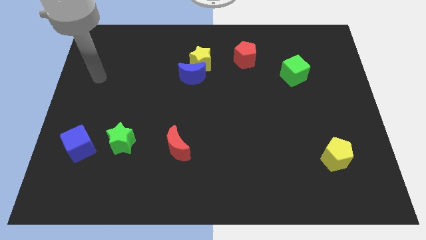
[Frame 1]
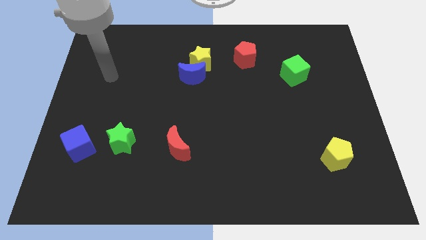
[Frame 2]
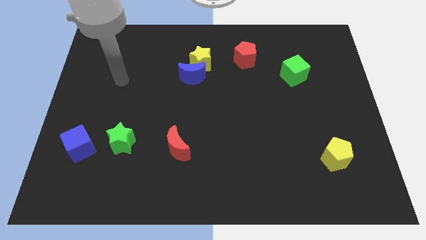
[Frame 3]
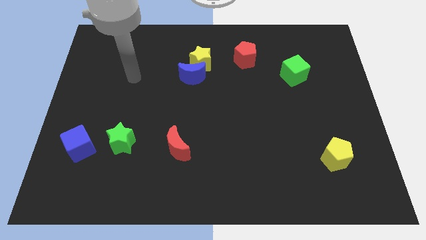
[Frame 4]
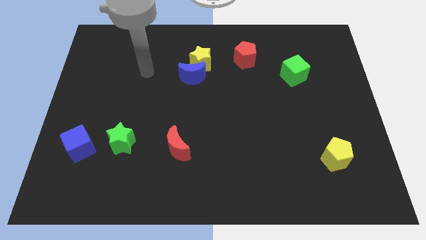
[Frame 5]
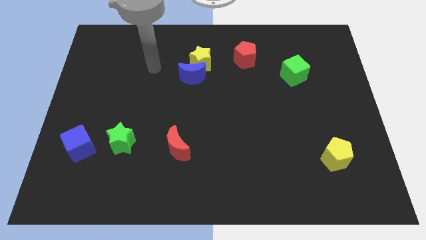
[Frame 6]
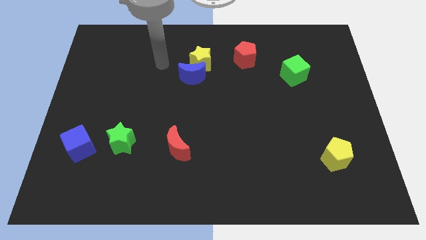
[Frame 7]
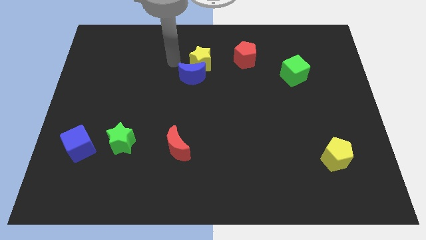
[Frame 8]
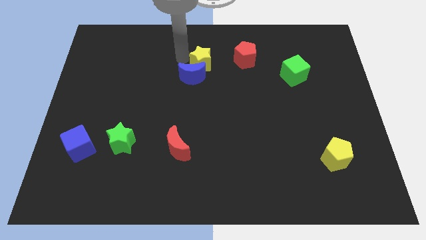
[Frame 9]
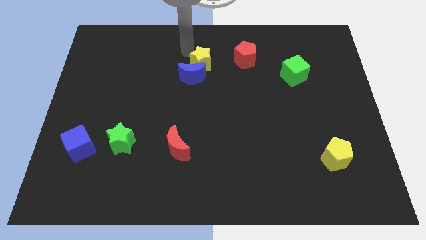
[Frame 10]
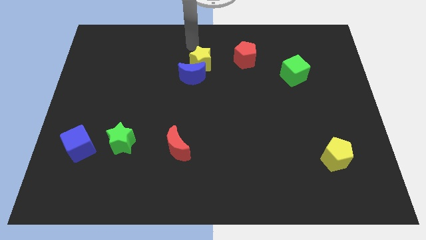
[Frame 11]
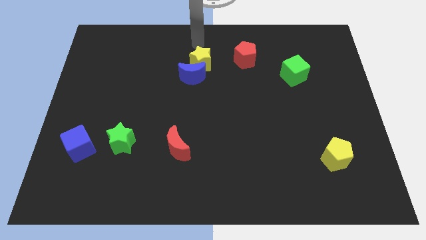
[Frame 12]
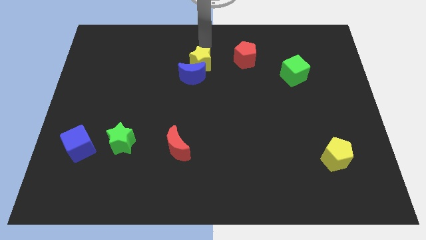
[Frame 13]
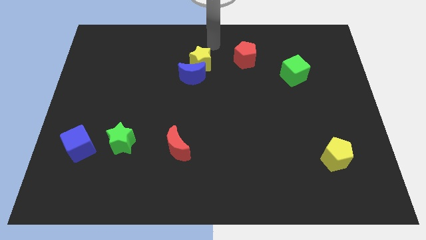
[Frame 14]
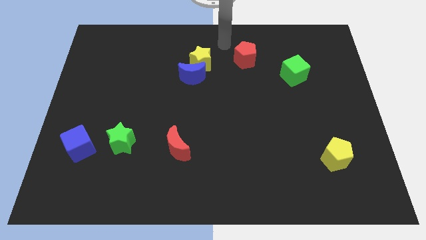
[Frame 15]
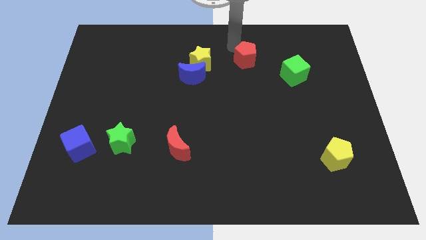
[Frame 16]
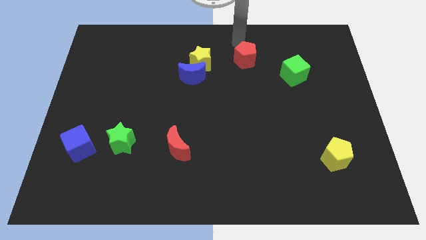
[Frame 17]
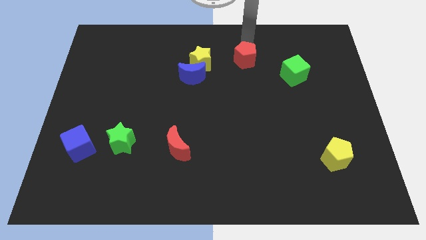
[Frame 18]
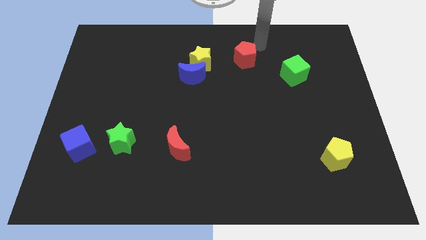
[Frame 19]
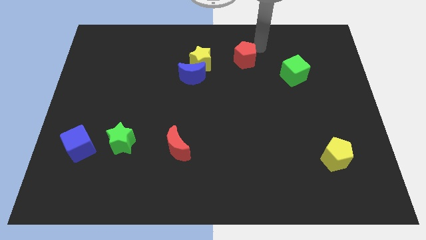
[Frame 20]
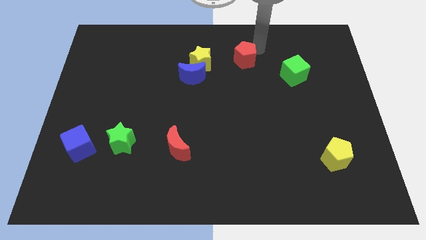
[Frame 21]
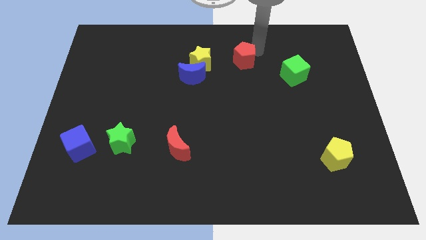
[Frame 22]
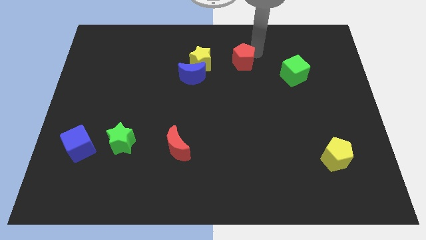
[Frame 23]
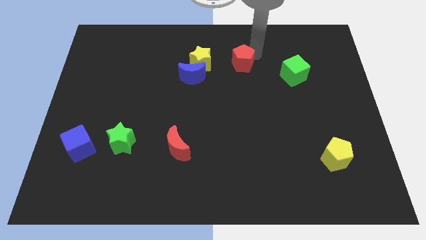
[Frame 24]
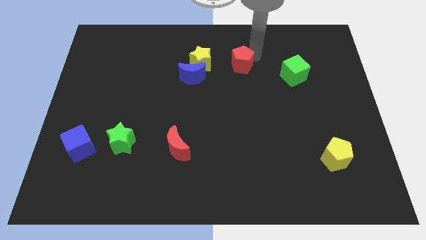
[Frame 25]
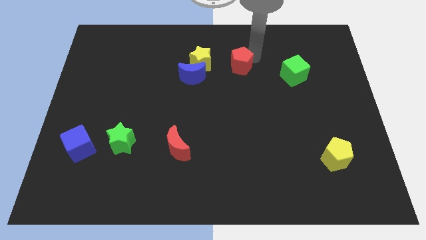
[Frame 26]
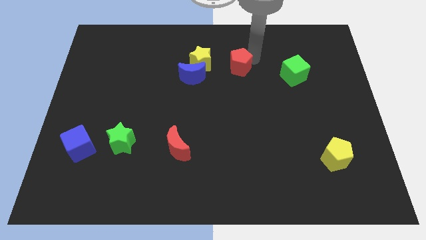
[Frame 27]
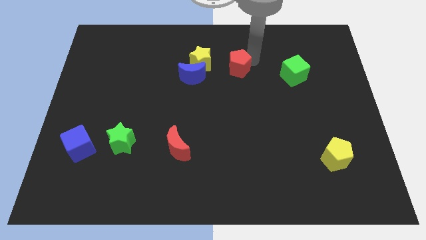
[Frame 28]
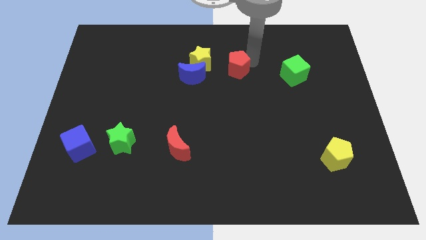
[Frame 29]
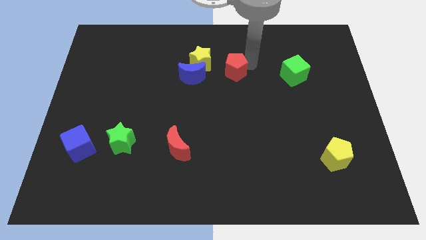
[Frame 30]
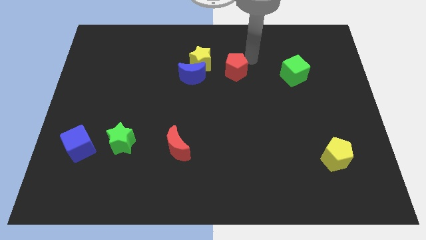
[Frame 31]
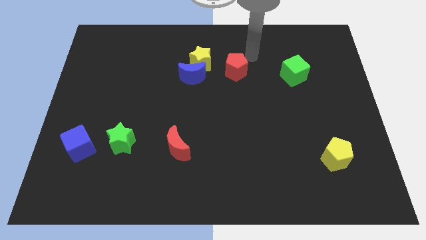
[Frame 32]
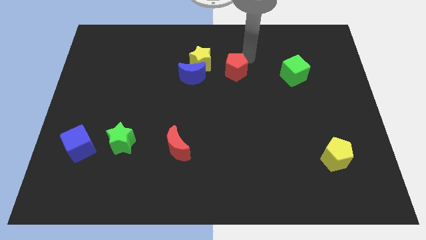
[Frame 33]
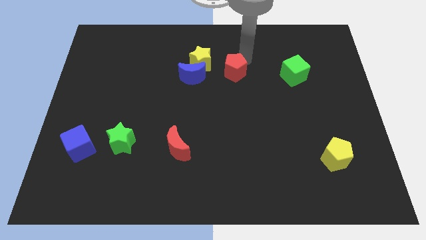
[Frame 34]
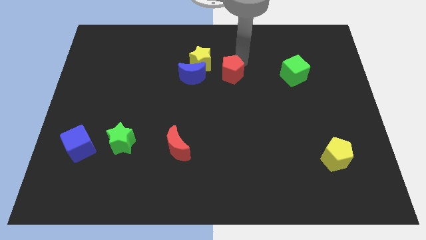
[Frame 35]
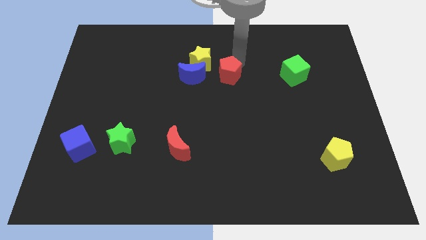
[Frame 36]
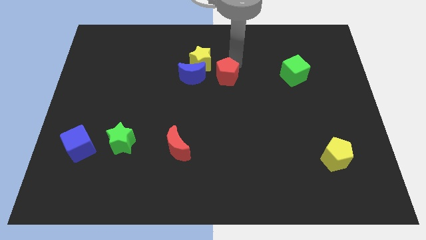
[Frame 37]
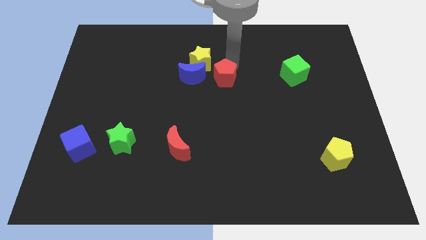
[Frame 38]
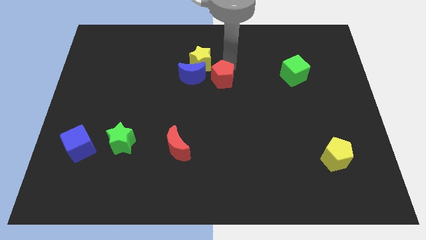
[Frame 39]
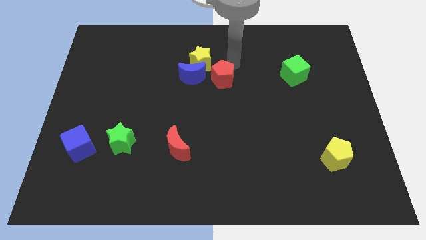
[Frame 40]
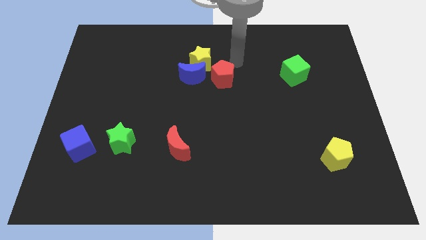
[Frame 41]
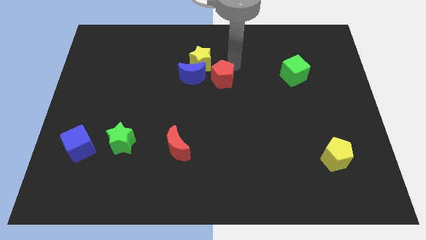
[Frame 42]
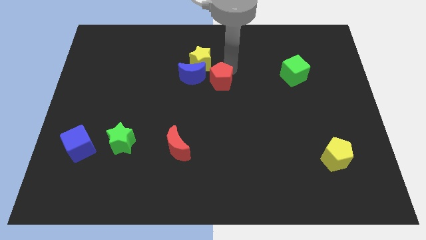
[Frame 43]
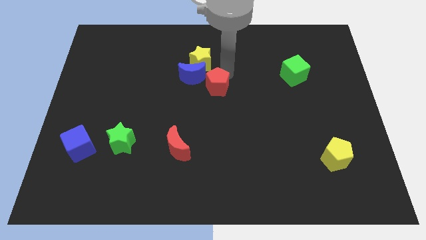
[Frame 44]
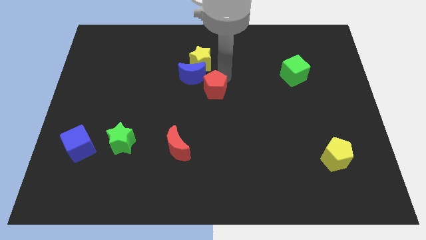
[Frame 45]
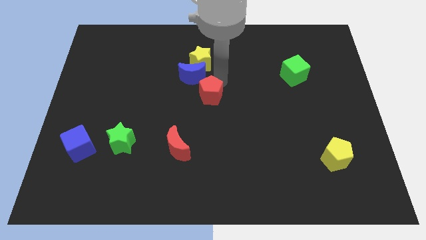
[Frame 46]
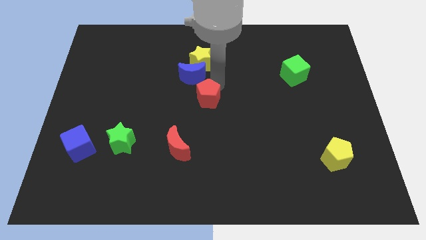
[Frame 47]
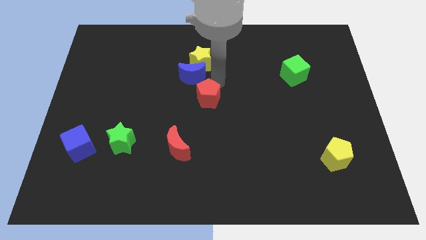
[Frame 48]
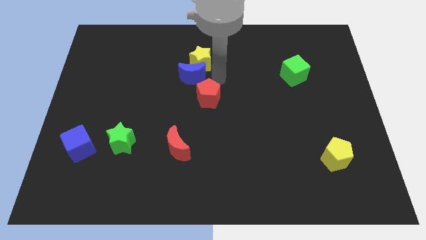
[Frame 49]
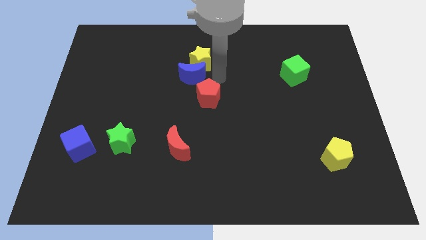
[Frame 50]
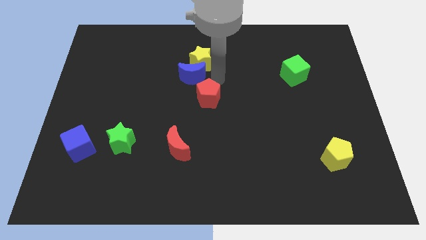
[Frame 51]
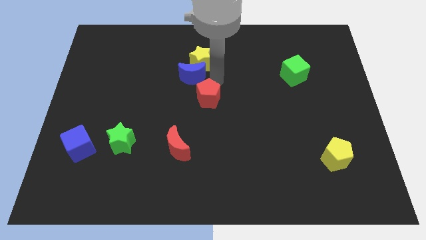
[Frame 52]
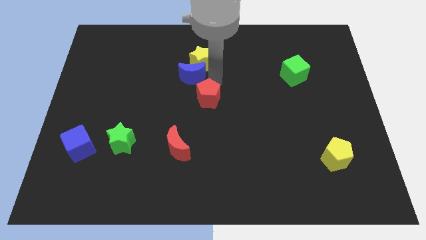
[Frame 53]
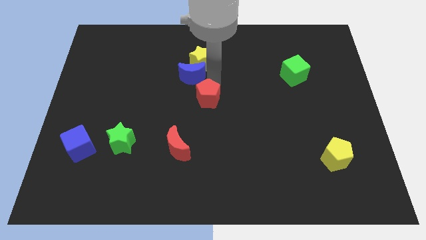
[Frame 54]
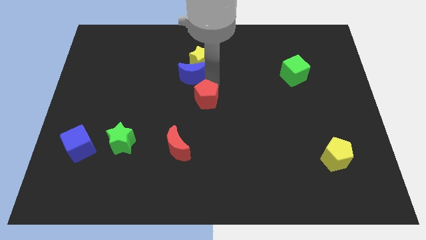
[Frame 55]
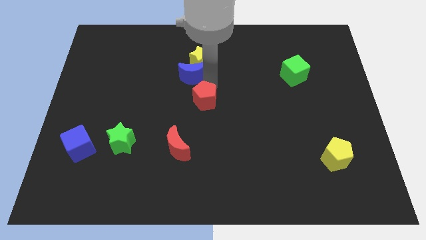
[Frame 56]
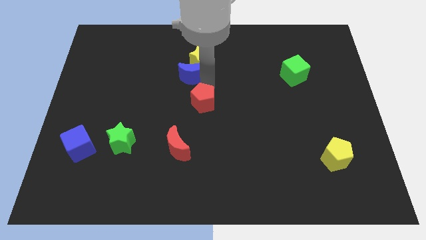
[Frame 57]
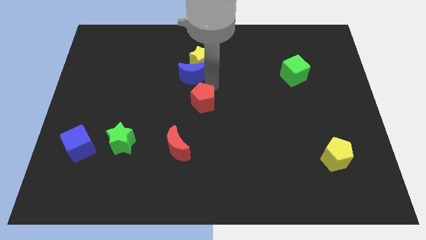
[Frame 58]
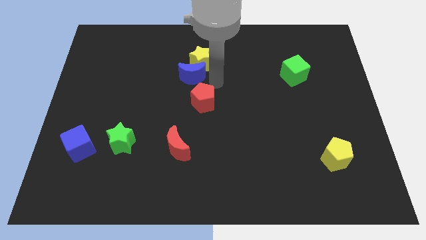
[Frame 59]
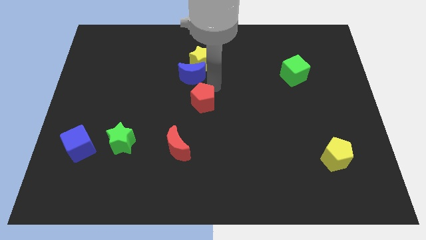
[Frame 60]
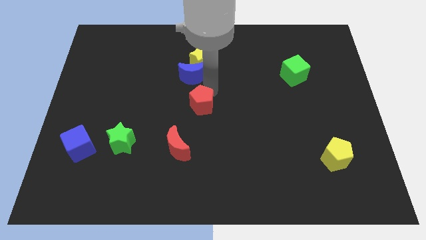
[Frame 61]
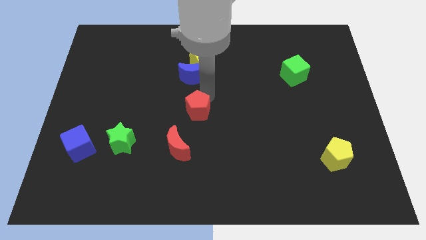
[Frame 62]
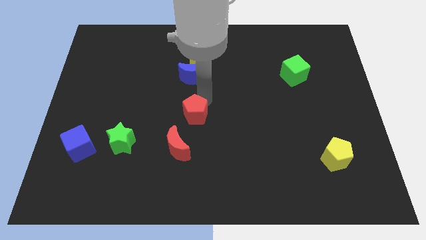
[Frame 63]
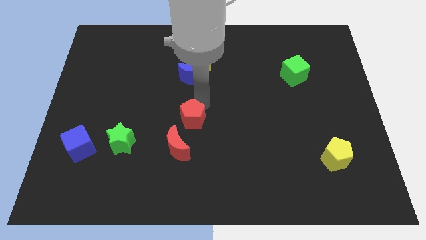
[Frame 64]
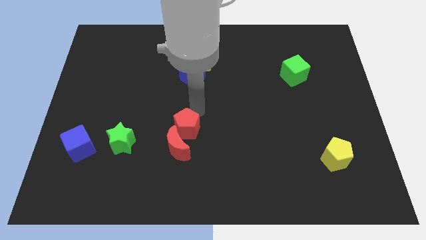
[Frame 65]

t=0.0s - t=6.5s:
move the red pentagon next to the red moon

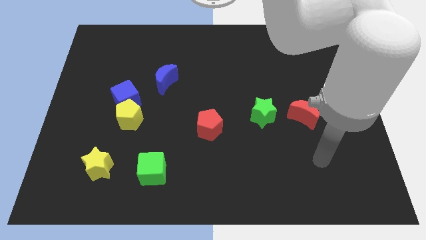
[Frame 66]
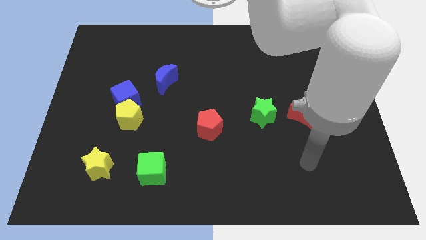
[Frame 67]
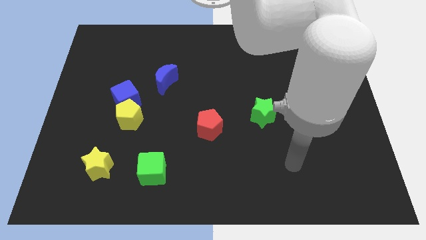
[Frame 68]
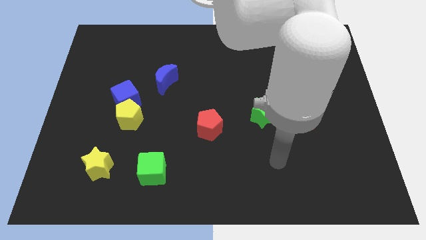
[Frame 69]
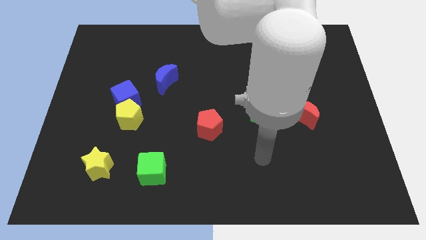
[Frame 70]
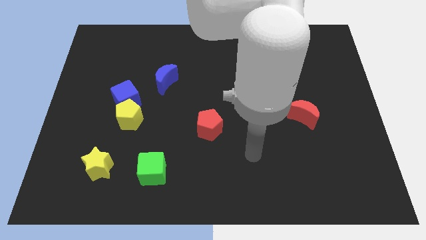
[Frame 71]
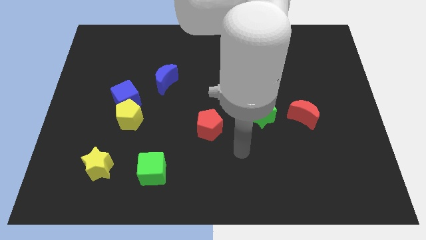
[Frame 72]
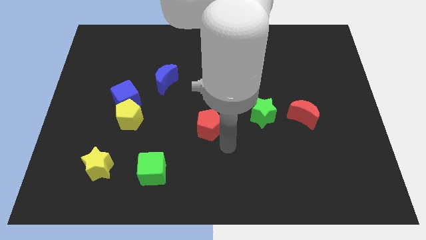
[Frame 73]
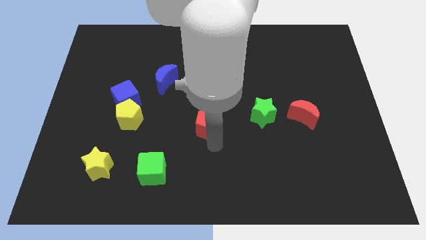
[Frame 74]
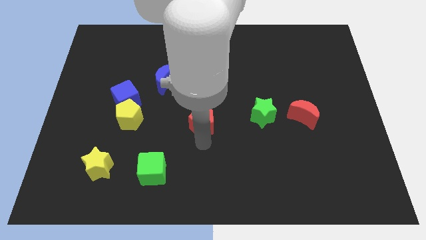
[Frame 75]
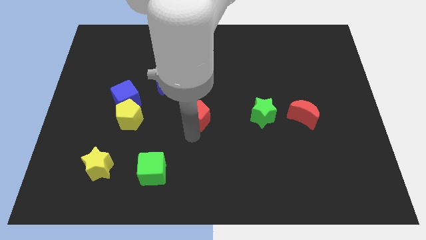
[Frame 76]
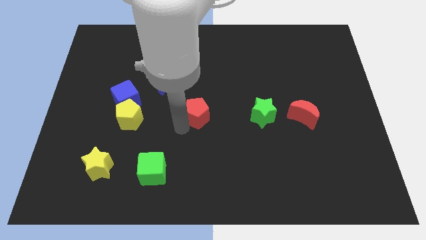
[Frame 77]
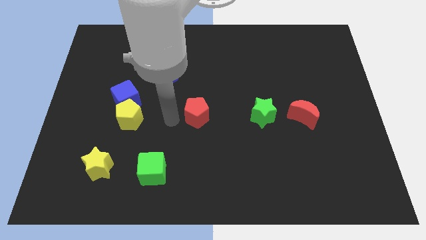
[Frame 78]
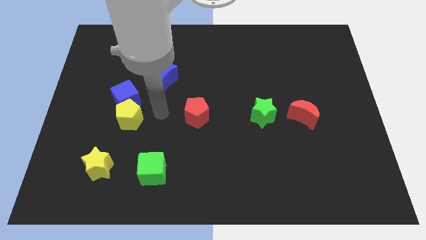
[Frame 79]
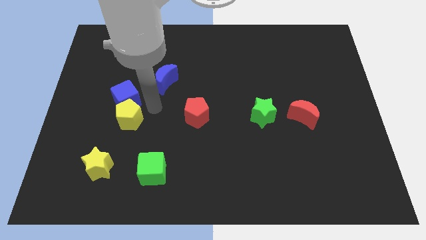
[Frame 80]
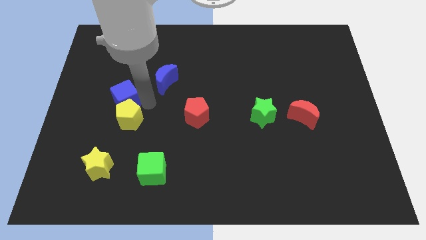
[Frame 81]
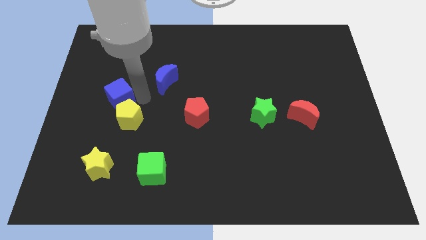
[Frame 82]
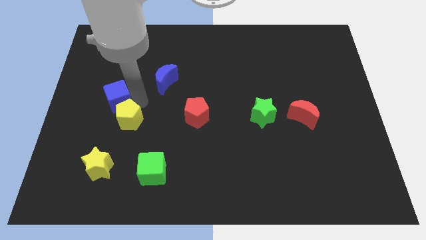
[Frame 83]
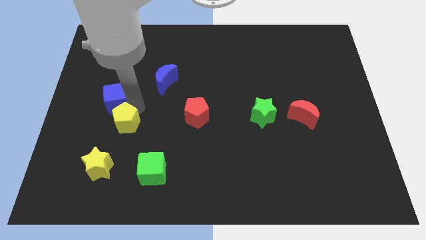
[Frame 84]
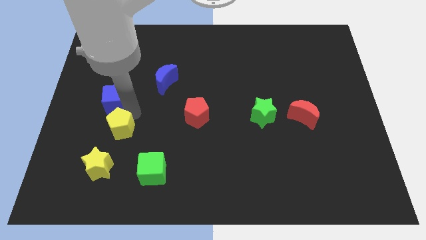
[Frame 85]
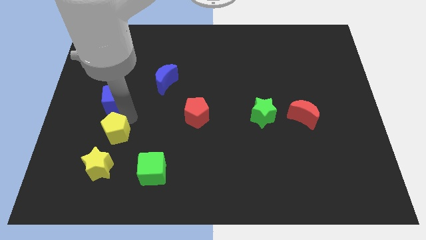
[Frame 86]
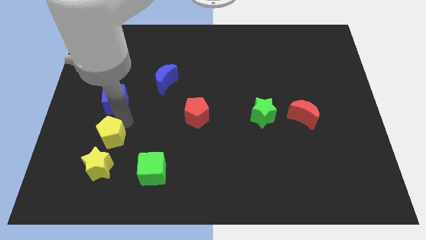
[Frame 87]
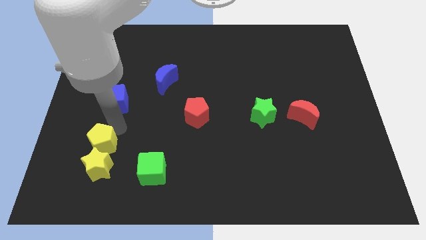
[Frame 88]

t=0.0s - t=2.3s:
push the yellow pentagon next to the yellow star
